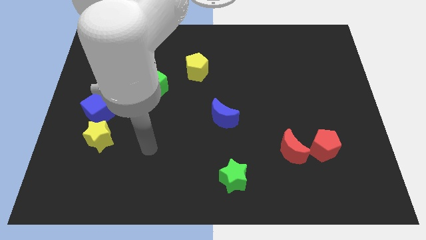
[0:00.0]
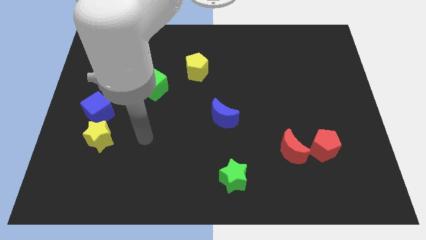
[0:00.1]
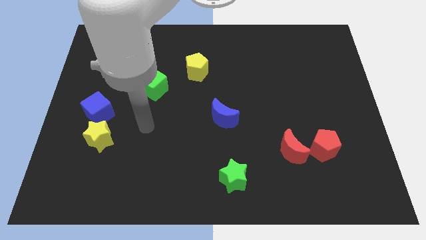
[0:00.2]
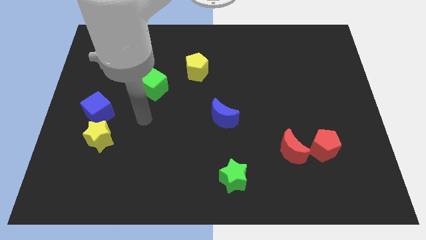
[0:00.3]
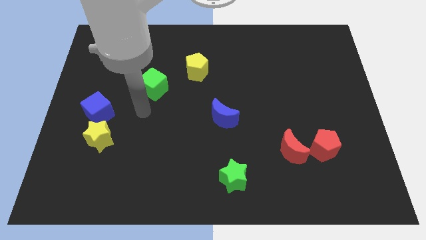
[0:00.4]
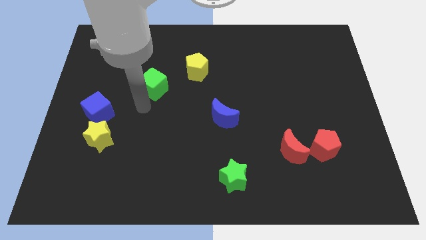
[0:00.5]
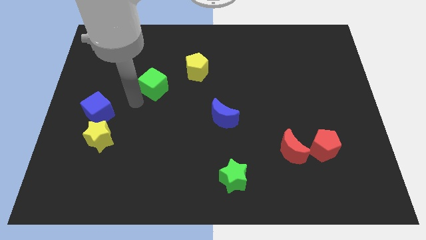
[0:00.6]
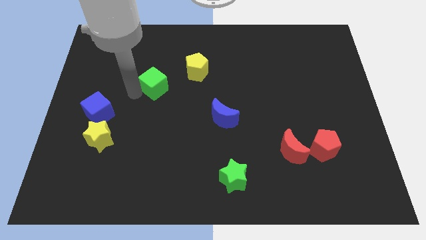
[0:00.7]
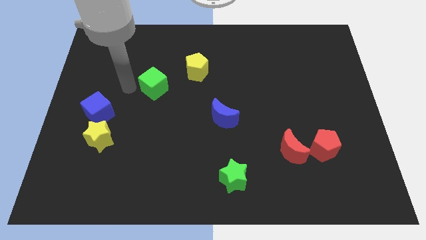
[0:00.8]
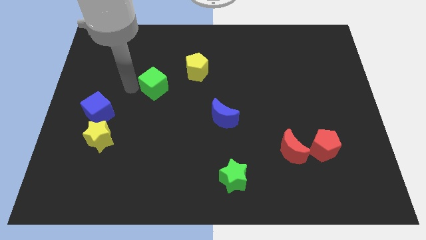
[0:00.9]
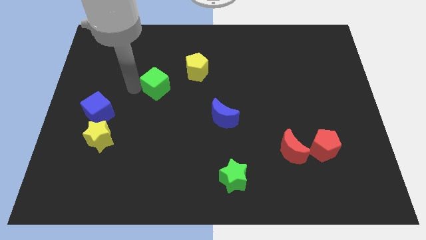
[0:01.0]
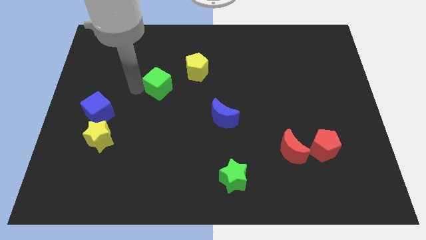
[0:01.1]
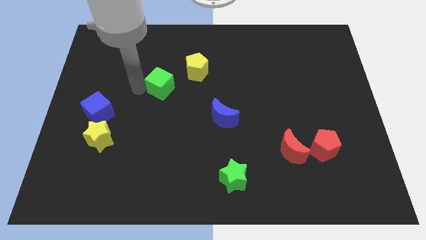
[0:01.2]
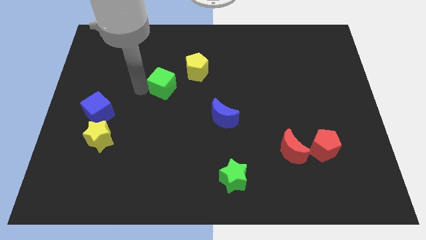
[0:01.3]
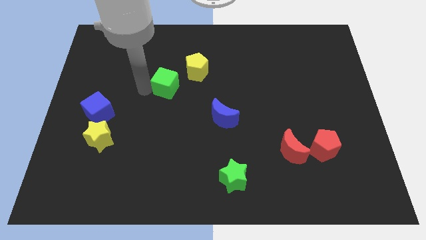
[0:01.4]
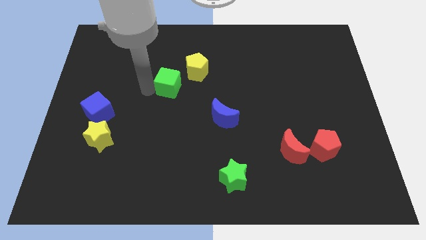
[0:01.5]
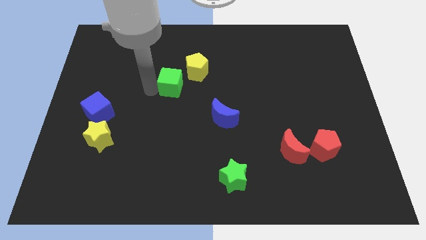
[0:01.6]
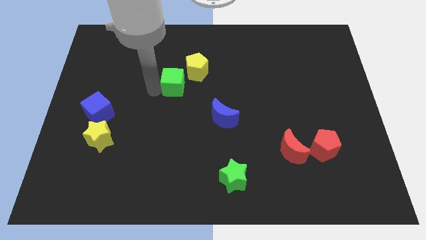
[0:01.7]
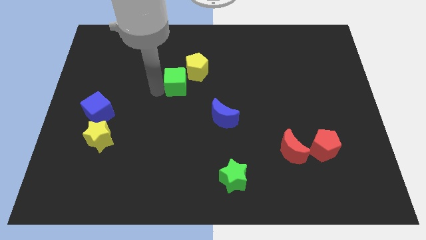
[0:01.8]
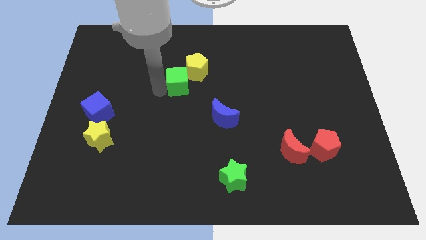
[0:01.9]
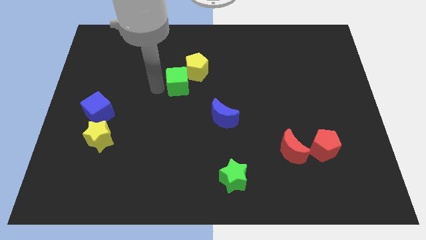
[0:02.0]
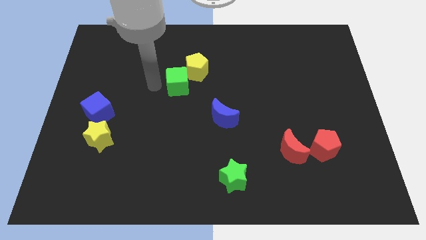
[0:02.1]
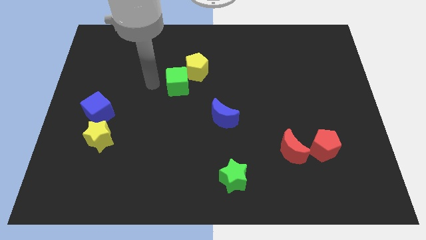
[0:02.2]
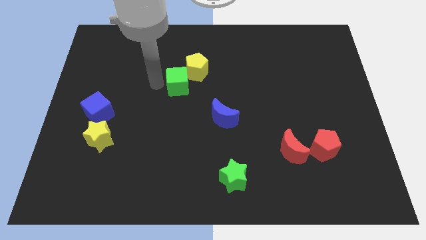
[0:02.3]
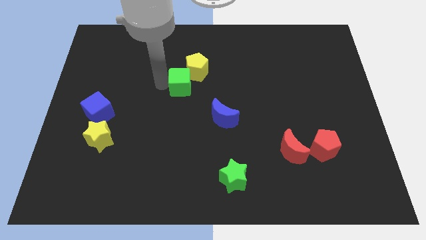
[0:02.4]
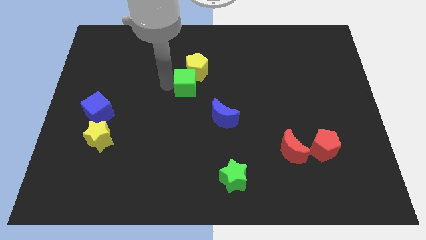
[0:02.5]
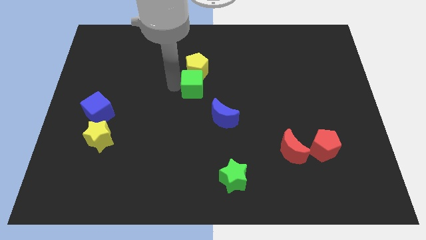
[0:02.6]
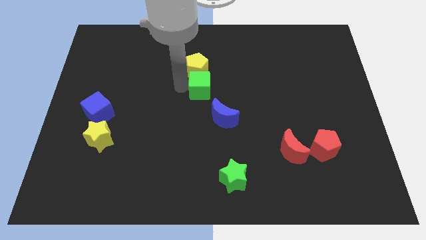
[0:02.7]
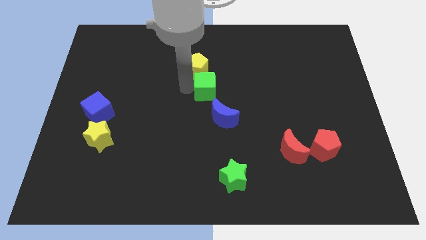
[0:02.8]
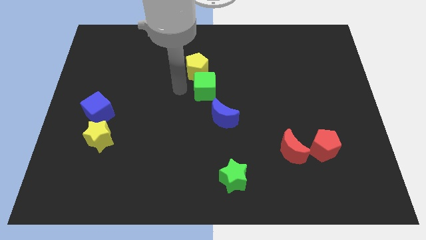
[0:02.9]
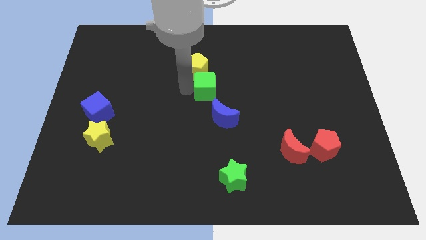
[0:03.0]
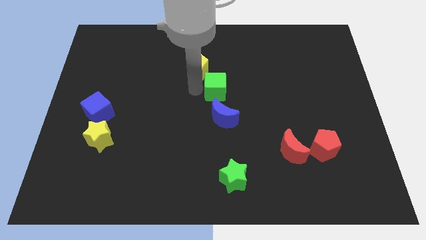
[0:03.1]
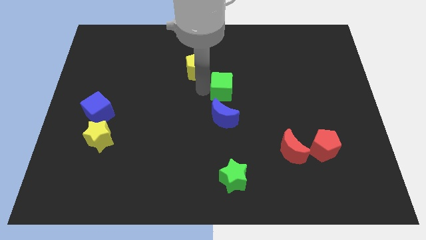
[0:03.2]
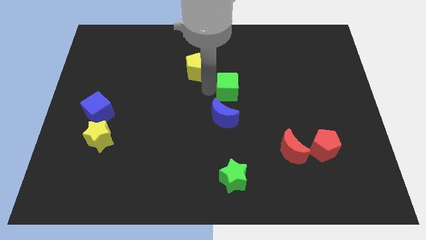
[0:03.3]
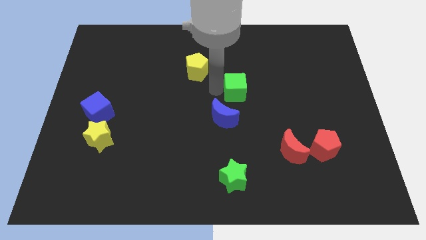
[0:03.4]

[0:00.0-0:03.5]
move the green cube right

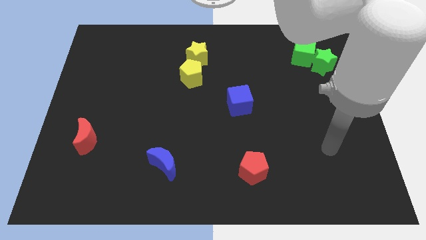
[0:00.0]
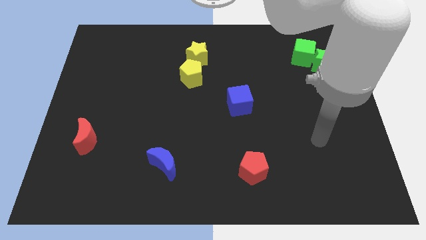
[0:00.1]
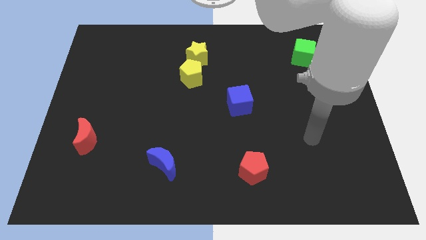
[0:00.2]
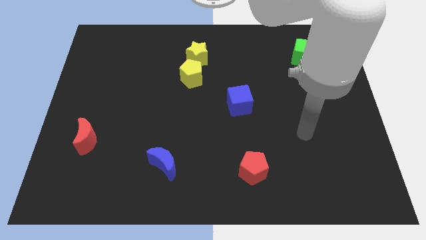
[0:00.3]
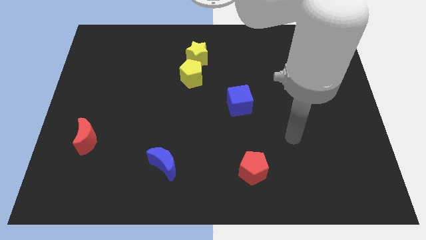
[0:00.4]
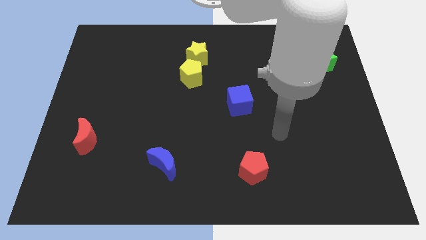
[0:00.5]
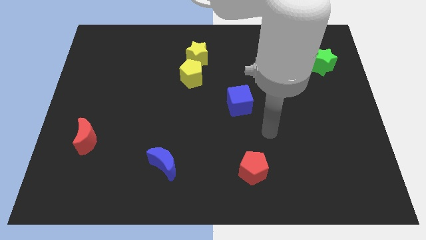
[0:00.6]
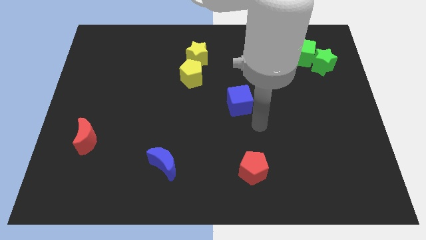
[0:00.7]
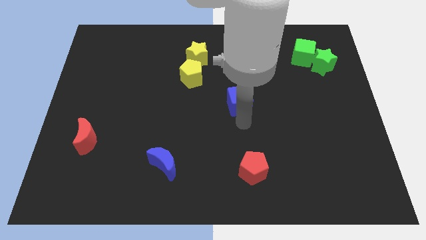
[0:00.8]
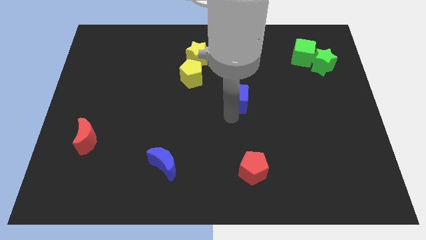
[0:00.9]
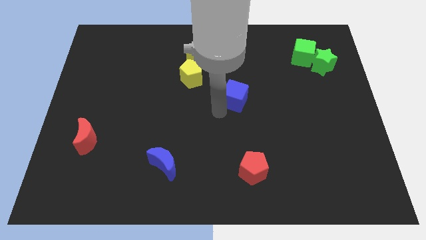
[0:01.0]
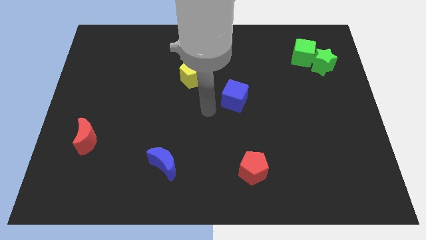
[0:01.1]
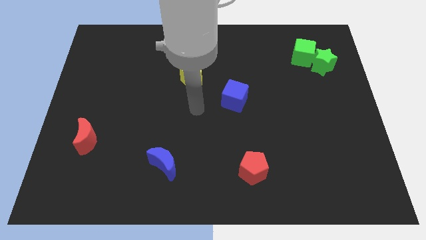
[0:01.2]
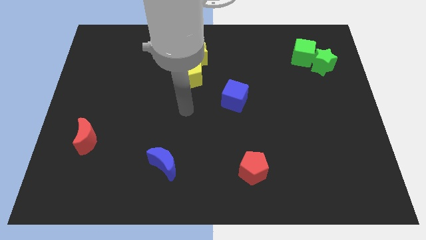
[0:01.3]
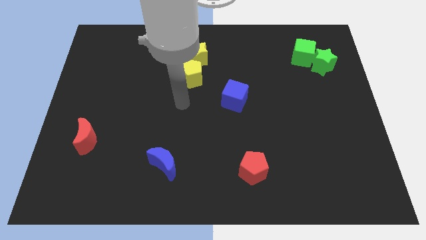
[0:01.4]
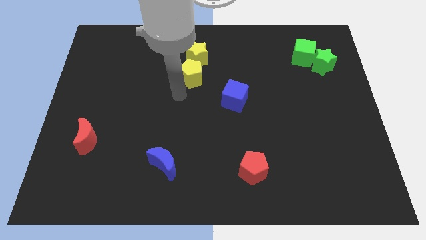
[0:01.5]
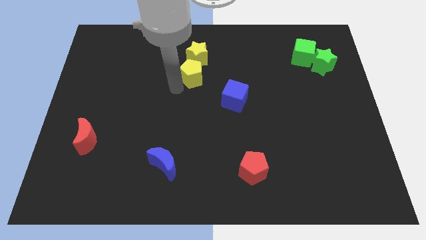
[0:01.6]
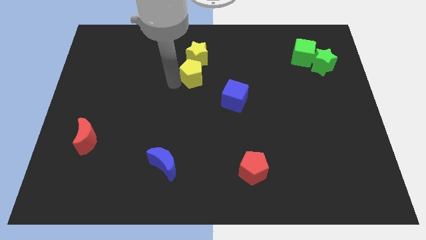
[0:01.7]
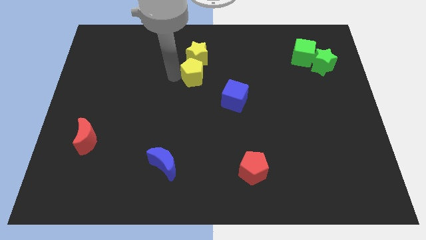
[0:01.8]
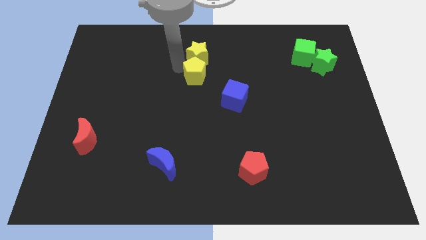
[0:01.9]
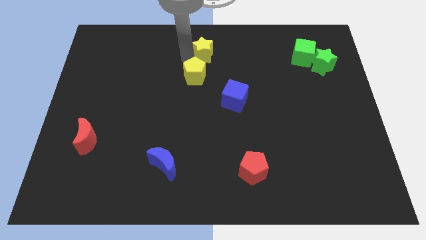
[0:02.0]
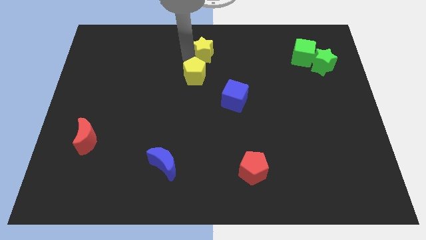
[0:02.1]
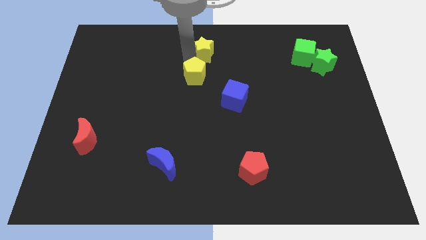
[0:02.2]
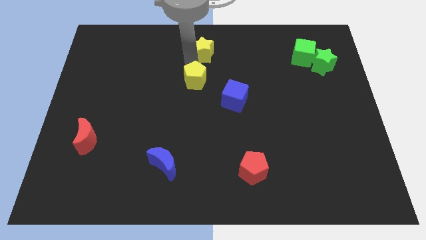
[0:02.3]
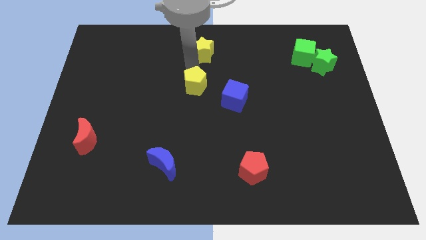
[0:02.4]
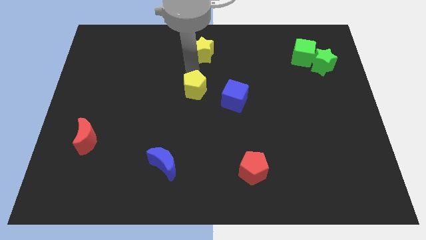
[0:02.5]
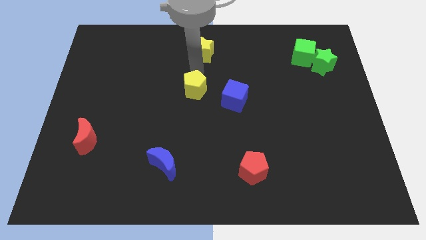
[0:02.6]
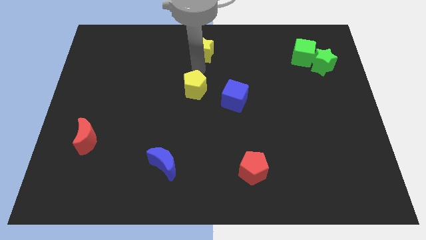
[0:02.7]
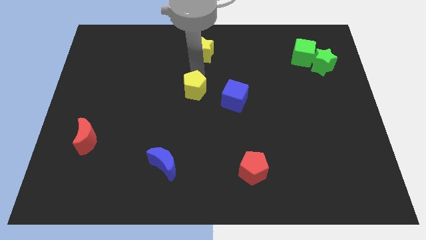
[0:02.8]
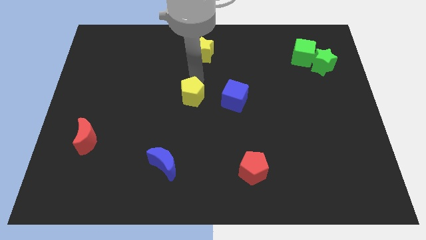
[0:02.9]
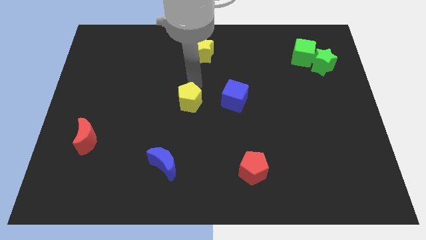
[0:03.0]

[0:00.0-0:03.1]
slide the yellow pentagon somewhat down

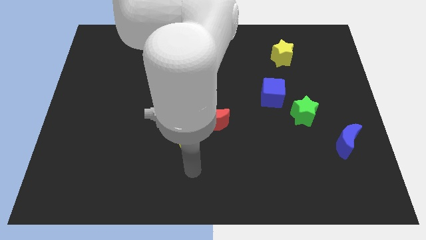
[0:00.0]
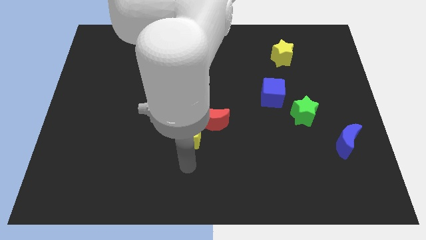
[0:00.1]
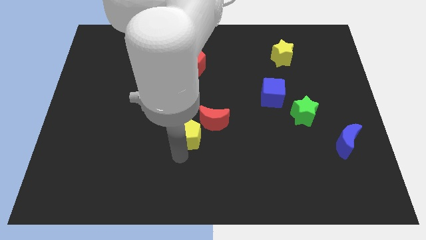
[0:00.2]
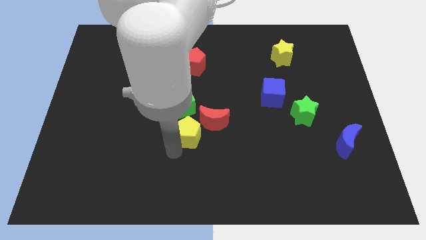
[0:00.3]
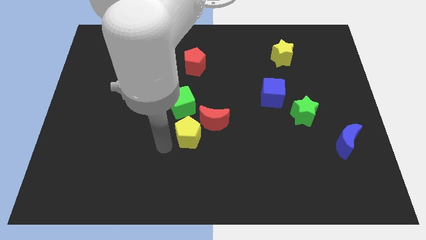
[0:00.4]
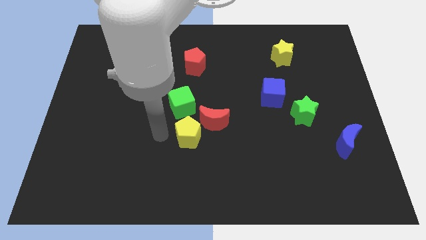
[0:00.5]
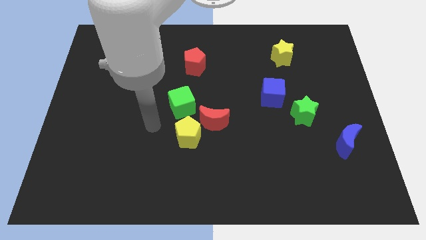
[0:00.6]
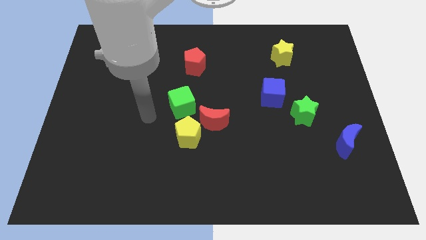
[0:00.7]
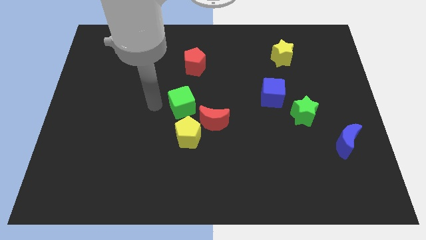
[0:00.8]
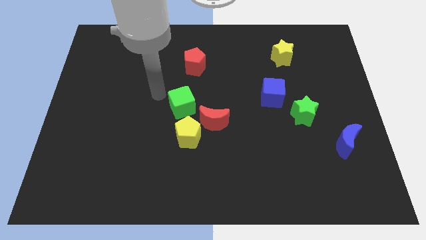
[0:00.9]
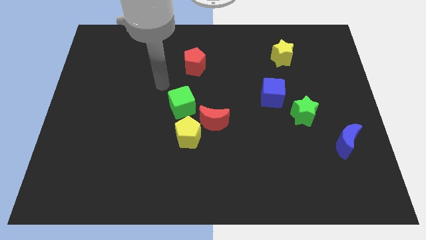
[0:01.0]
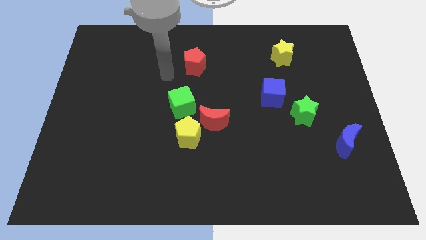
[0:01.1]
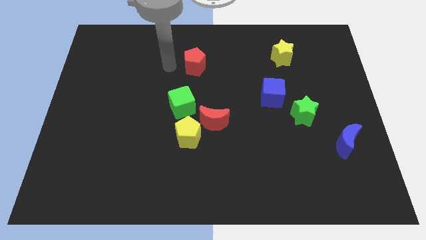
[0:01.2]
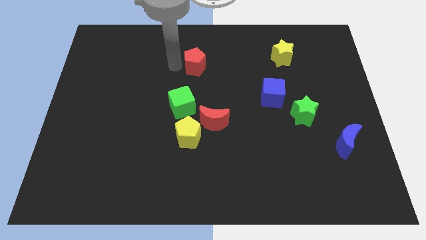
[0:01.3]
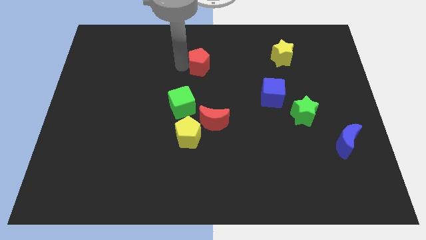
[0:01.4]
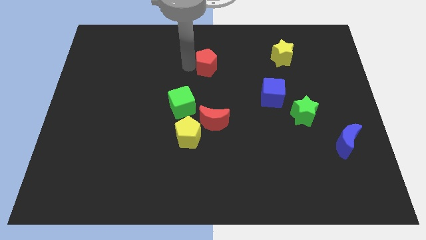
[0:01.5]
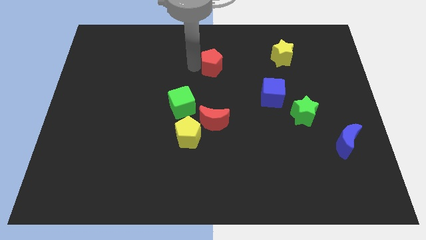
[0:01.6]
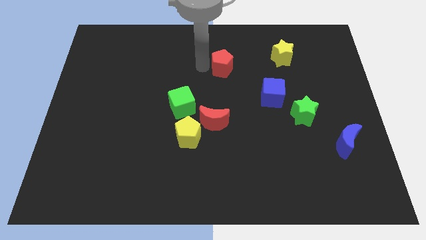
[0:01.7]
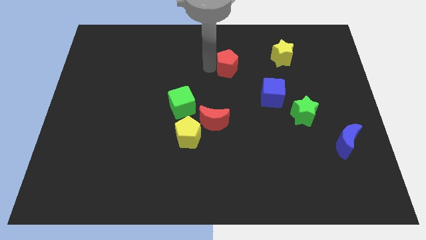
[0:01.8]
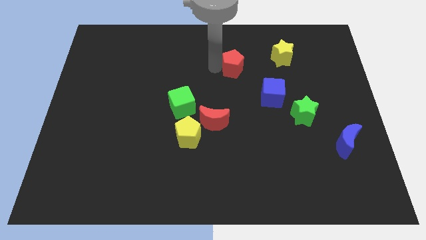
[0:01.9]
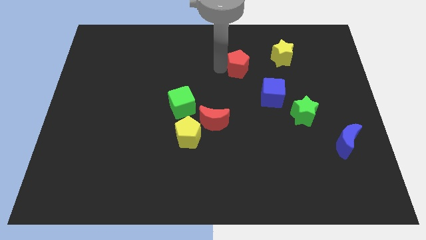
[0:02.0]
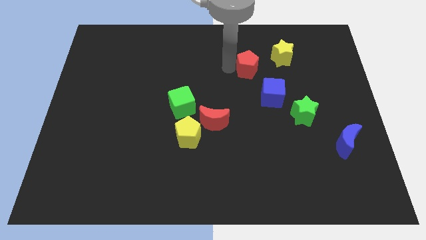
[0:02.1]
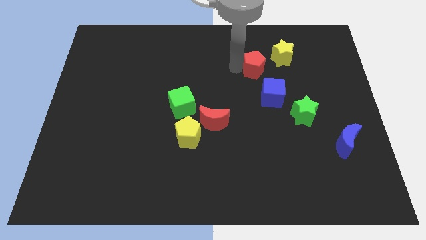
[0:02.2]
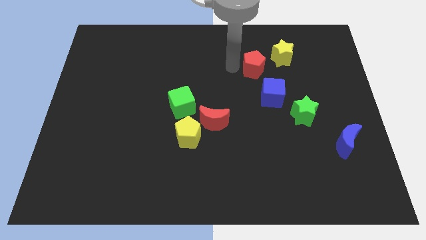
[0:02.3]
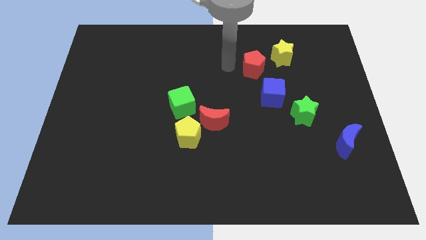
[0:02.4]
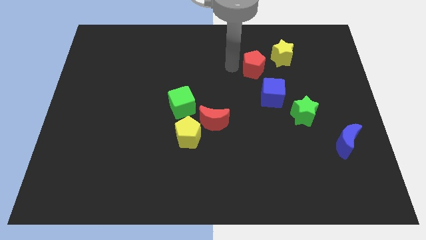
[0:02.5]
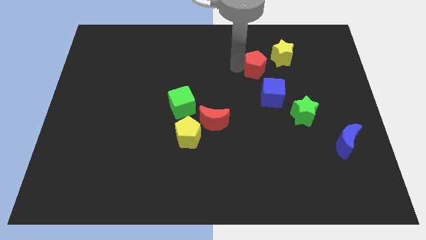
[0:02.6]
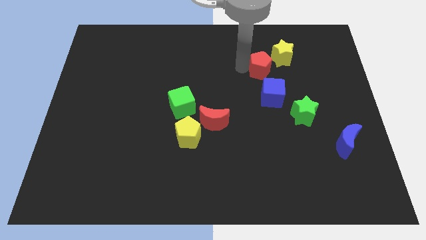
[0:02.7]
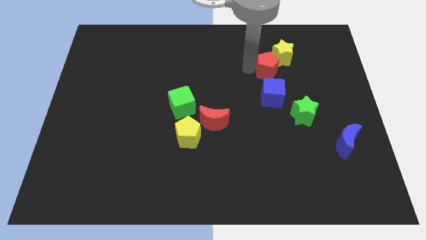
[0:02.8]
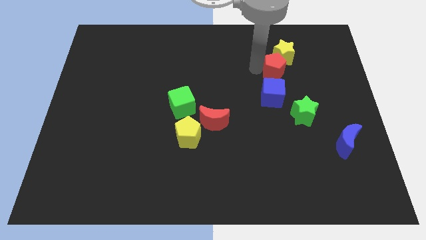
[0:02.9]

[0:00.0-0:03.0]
slide the red pentagon right
